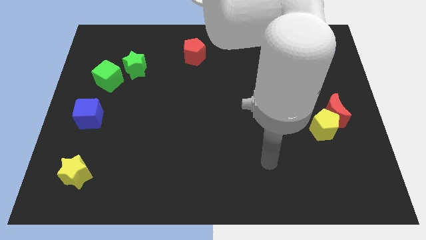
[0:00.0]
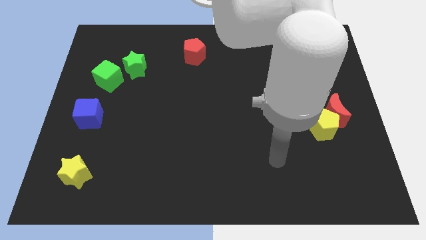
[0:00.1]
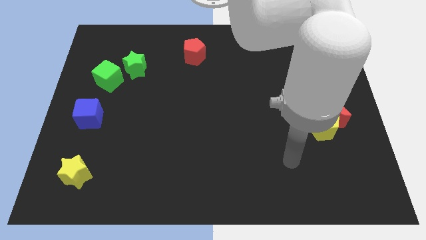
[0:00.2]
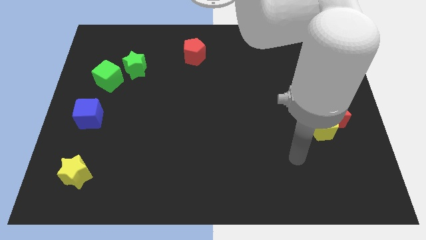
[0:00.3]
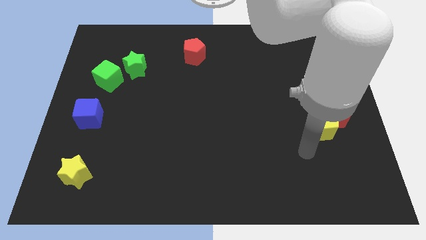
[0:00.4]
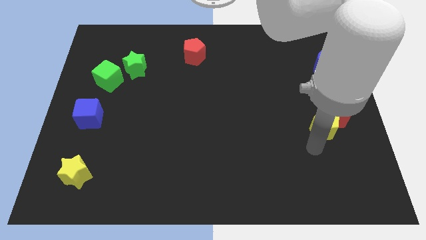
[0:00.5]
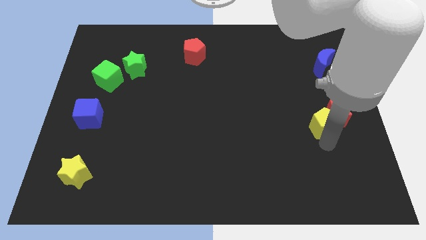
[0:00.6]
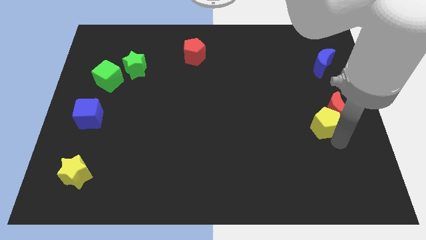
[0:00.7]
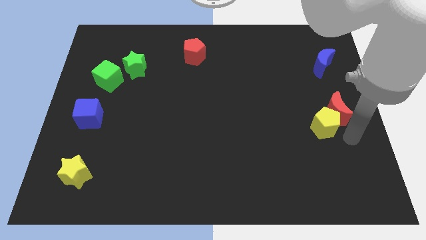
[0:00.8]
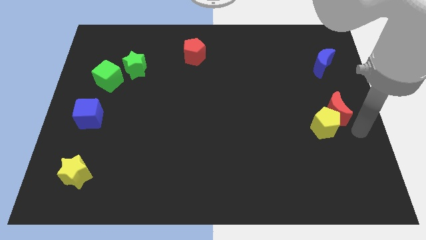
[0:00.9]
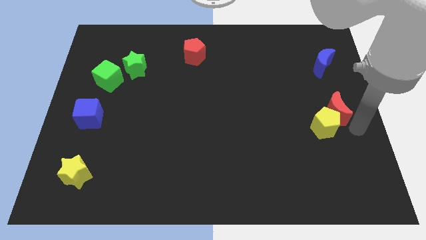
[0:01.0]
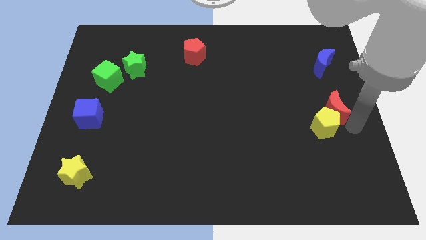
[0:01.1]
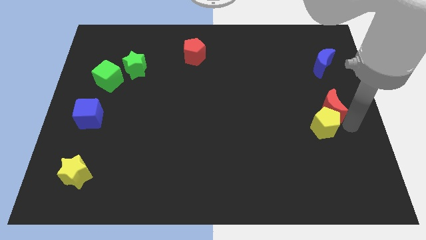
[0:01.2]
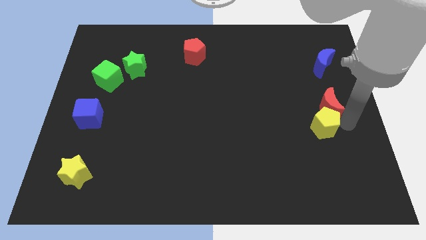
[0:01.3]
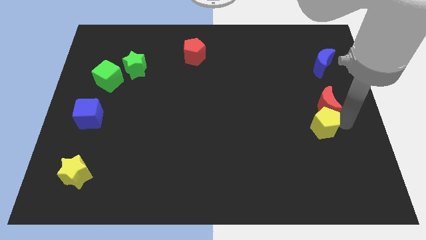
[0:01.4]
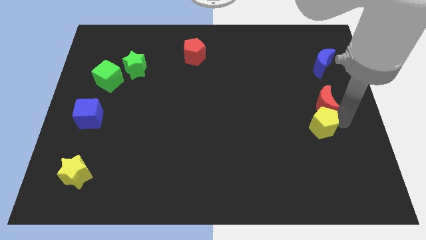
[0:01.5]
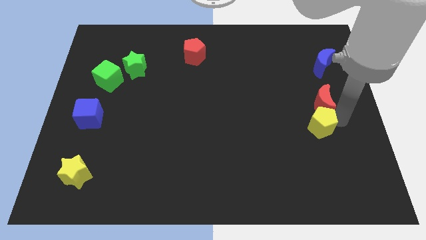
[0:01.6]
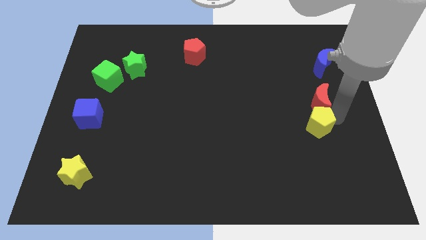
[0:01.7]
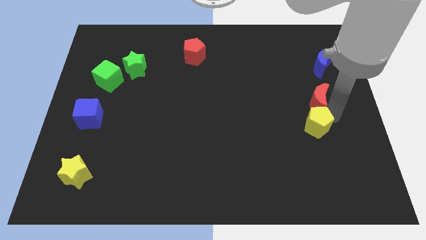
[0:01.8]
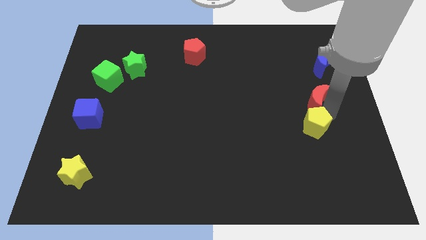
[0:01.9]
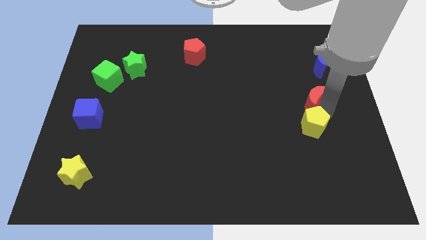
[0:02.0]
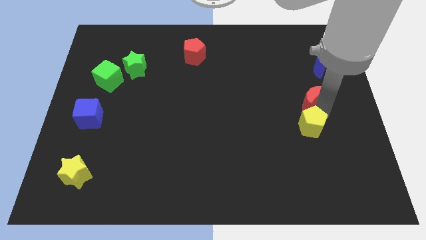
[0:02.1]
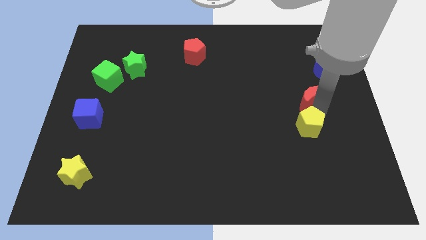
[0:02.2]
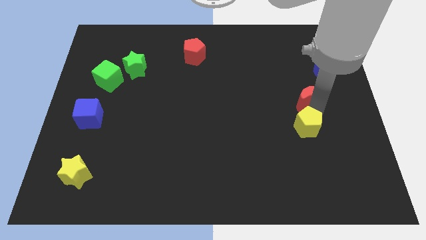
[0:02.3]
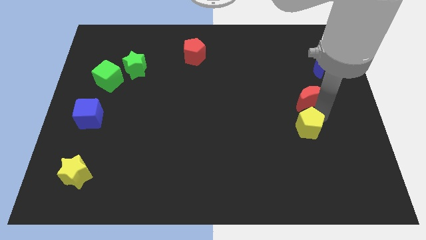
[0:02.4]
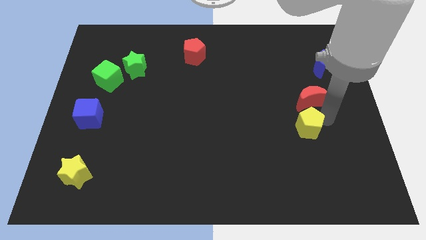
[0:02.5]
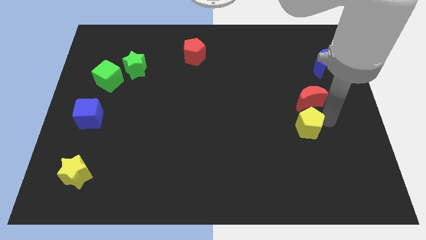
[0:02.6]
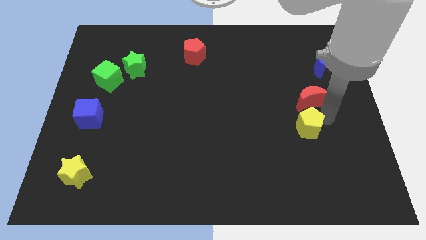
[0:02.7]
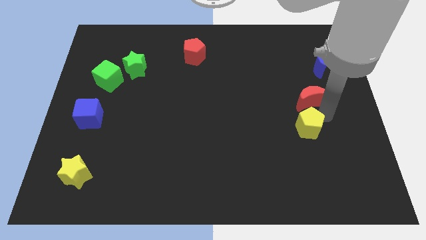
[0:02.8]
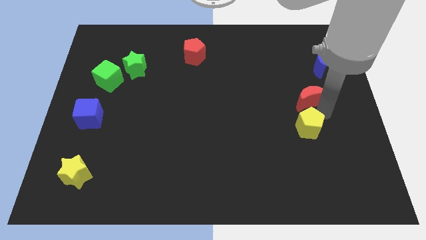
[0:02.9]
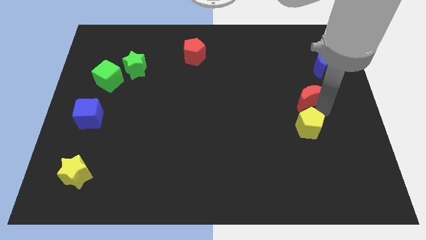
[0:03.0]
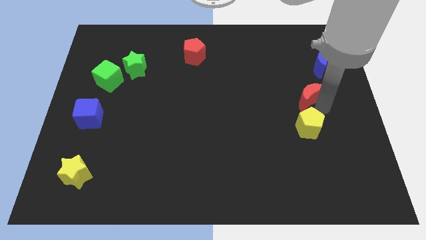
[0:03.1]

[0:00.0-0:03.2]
move the red moon diagonally up and left somewhat

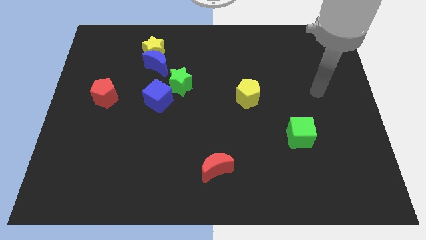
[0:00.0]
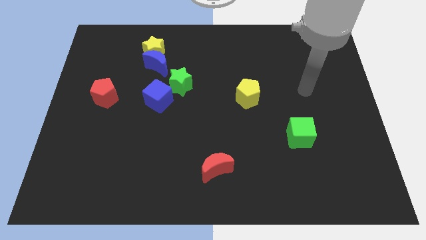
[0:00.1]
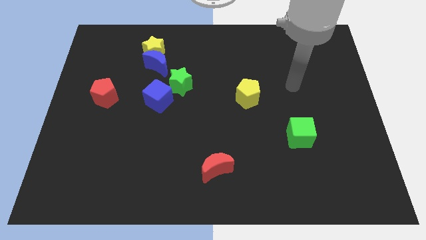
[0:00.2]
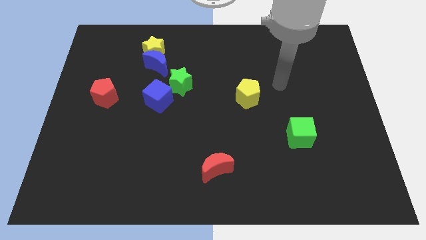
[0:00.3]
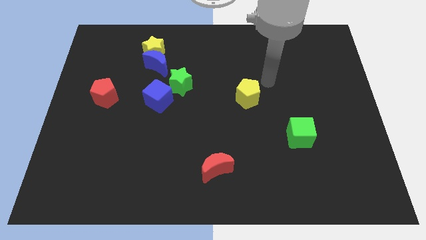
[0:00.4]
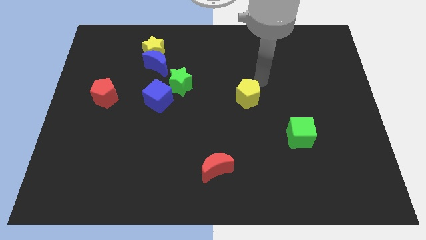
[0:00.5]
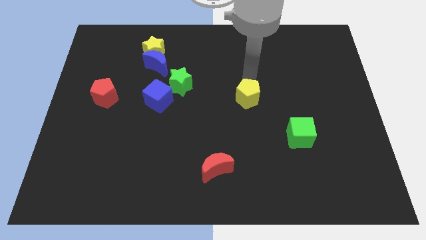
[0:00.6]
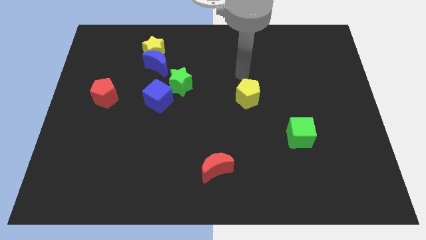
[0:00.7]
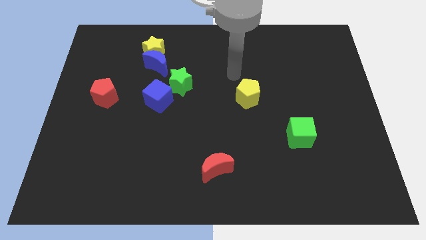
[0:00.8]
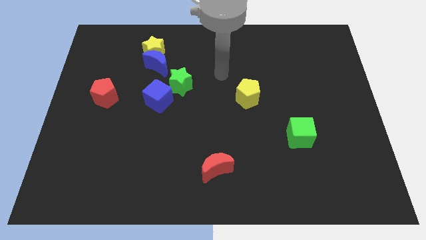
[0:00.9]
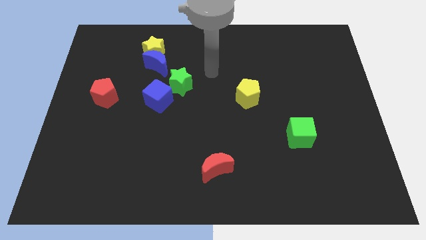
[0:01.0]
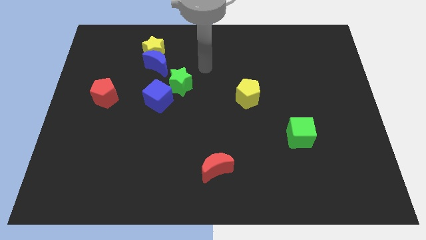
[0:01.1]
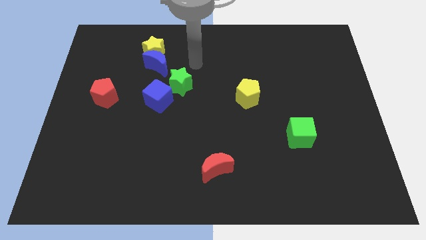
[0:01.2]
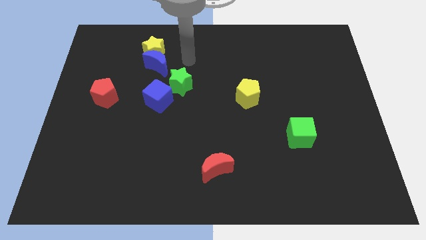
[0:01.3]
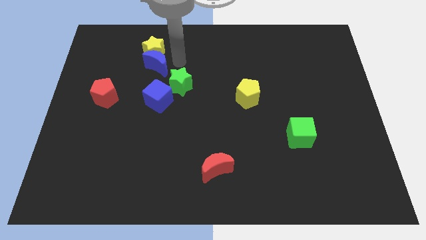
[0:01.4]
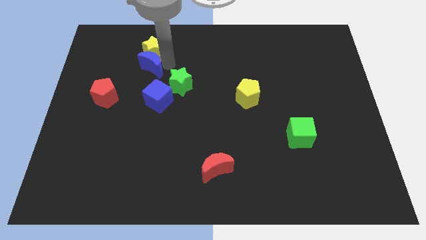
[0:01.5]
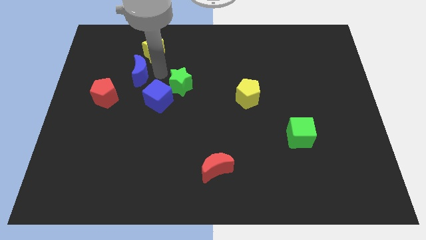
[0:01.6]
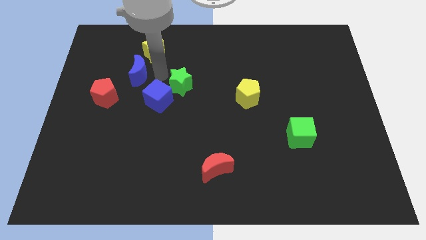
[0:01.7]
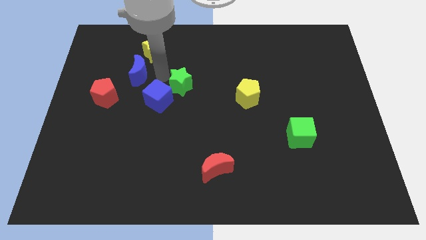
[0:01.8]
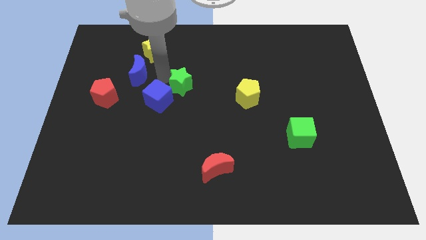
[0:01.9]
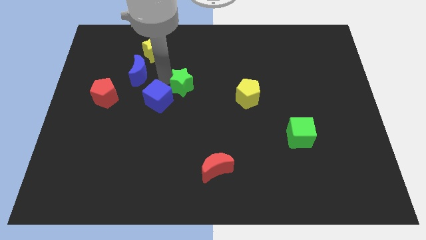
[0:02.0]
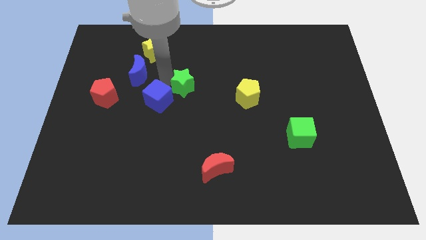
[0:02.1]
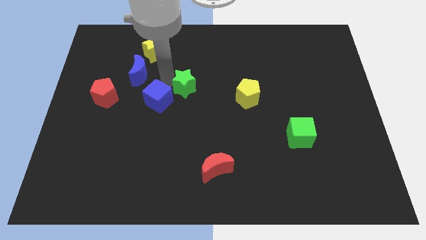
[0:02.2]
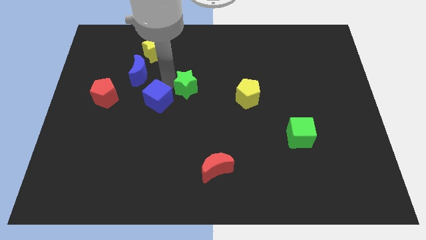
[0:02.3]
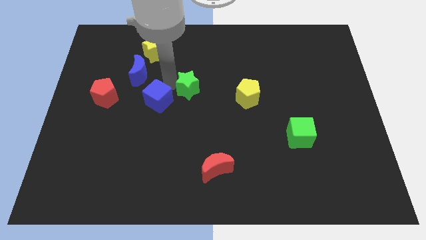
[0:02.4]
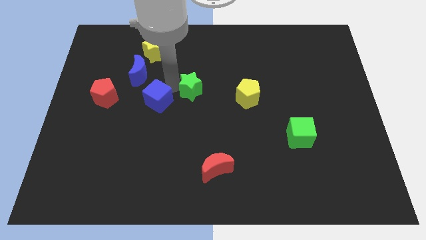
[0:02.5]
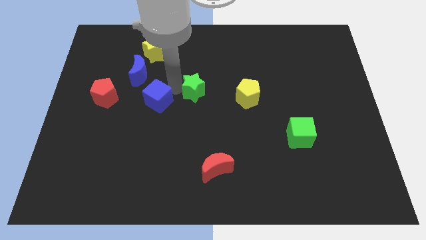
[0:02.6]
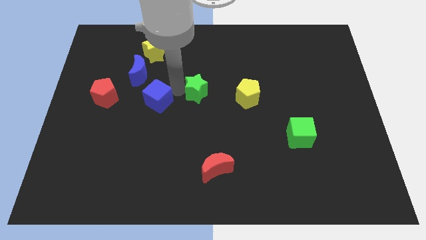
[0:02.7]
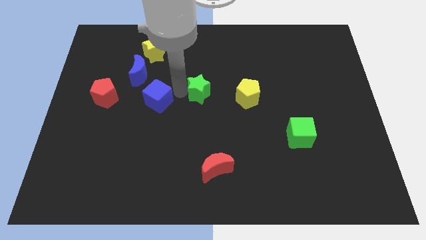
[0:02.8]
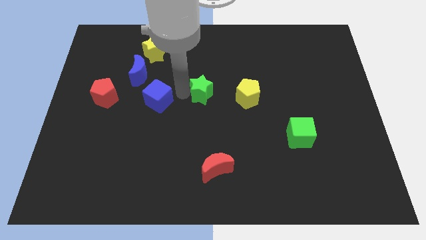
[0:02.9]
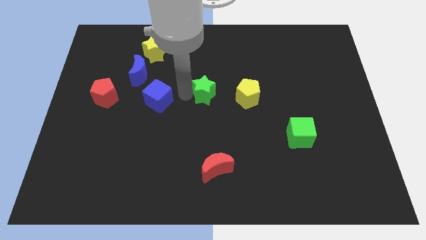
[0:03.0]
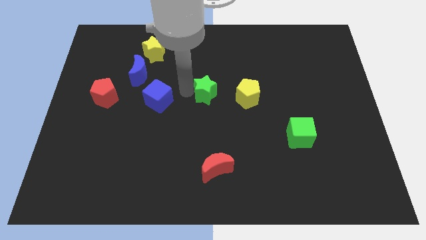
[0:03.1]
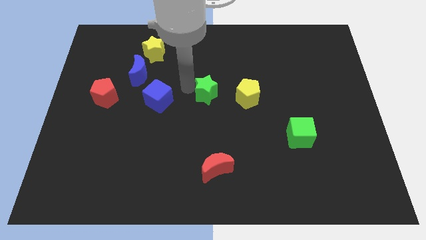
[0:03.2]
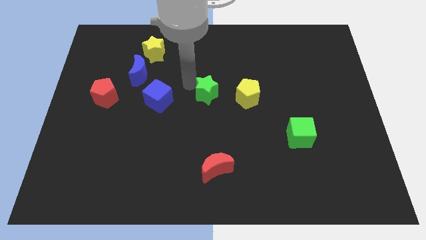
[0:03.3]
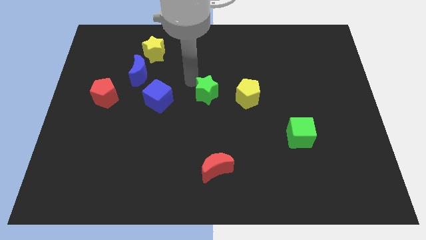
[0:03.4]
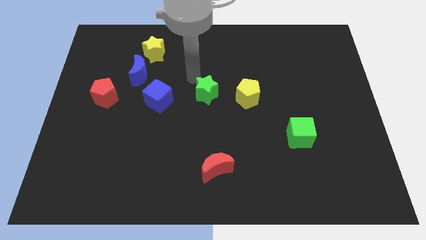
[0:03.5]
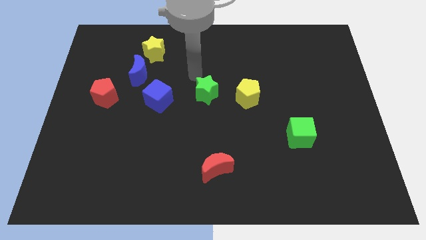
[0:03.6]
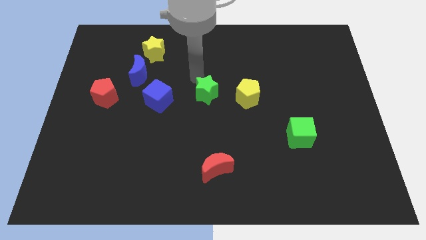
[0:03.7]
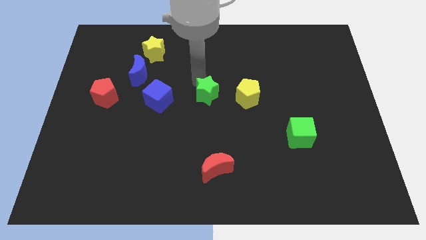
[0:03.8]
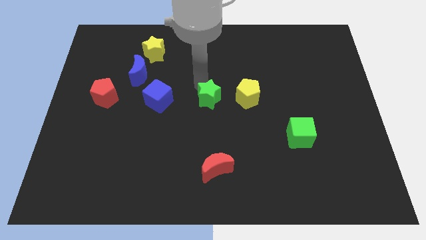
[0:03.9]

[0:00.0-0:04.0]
slide the green star somewhat down and then to the right

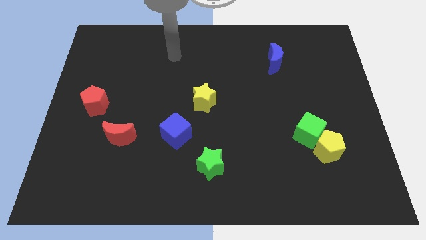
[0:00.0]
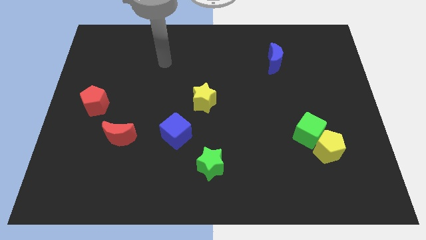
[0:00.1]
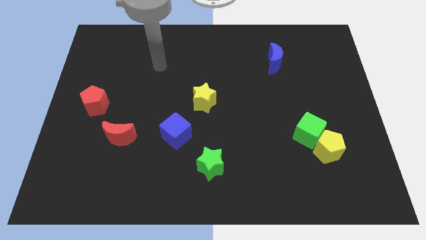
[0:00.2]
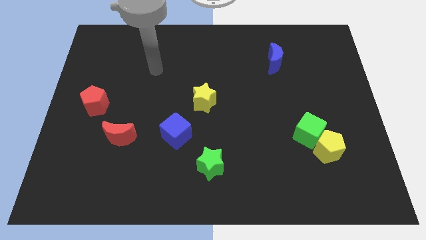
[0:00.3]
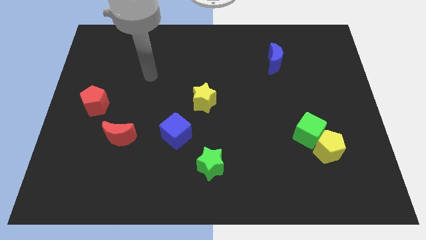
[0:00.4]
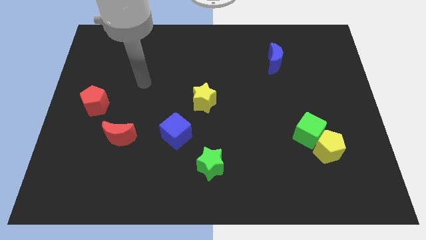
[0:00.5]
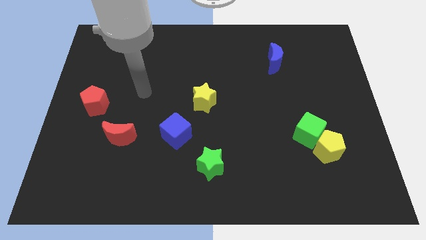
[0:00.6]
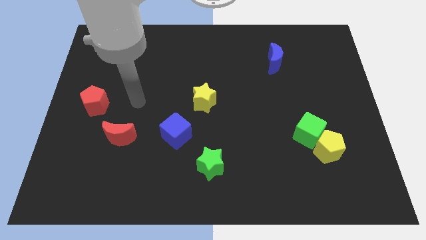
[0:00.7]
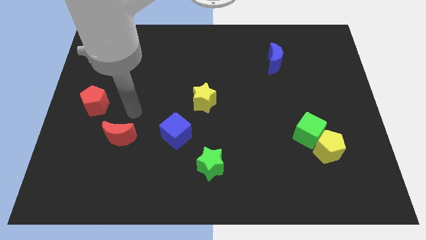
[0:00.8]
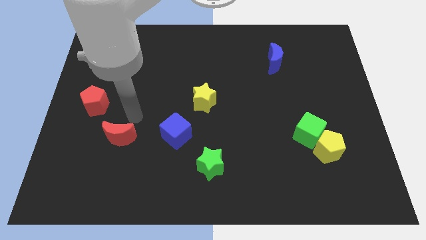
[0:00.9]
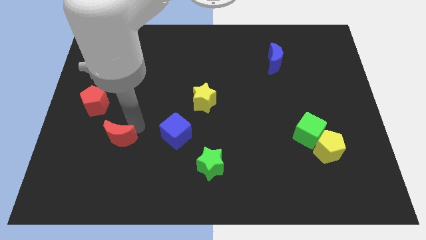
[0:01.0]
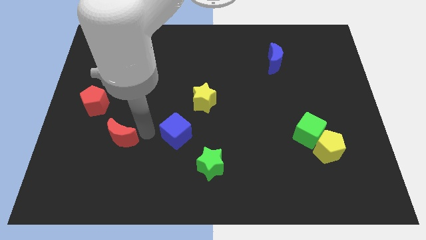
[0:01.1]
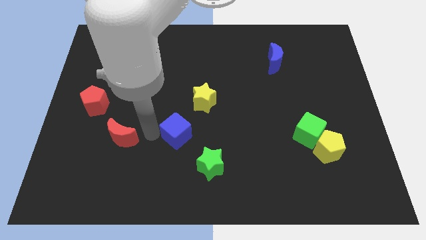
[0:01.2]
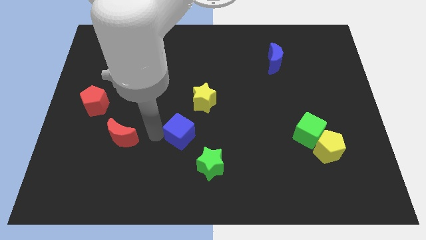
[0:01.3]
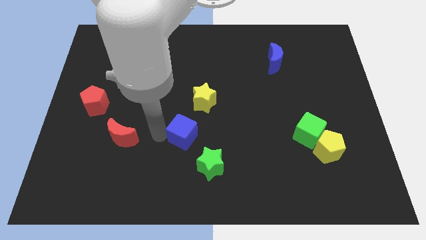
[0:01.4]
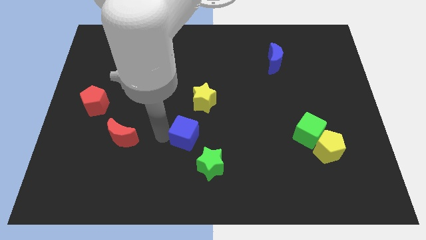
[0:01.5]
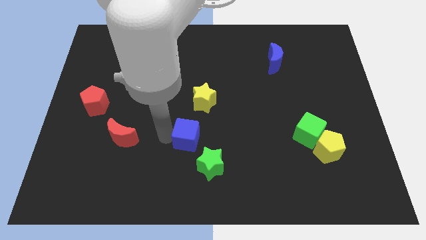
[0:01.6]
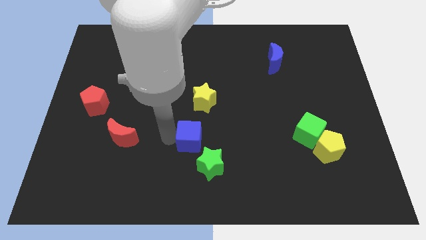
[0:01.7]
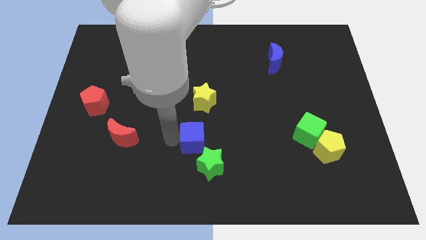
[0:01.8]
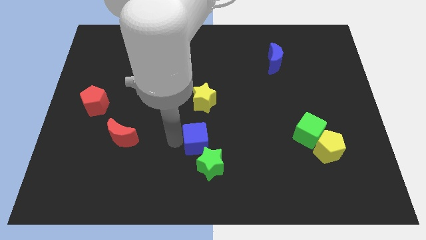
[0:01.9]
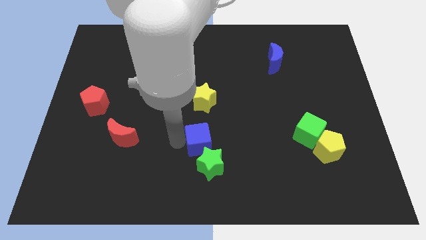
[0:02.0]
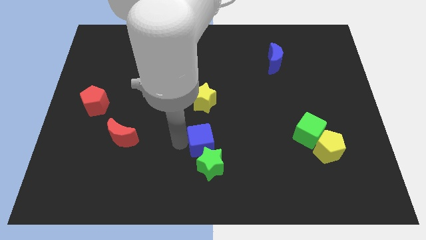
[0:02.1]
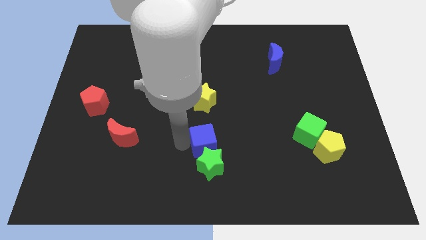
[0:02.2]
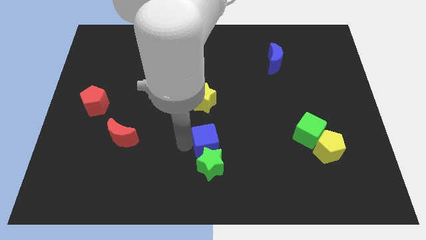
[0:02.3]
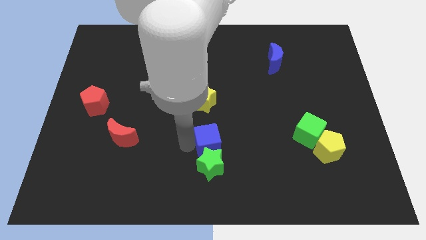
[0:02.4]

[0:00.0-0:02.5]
push the blue cube a little to the right
